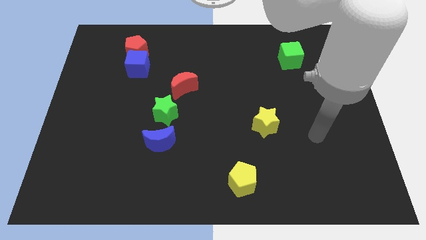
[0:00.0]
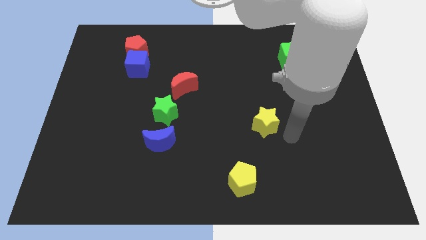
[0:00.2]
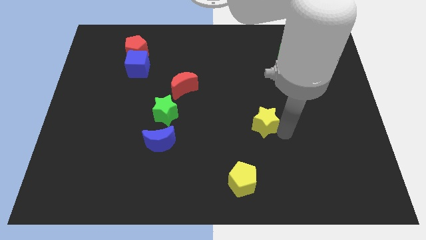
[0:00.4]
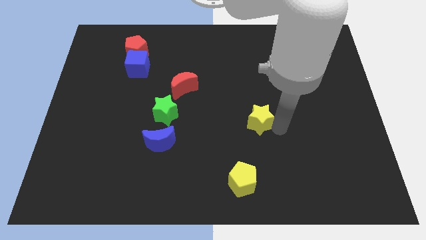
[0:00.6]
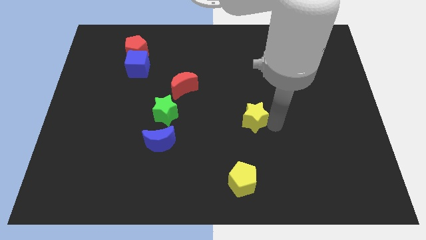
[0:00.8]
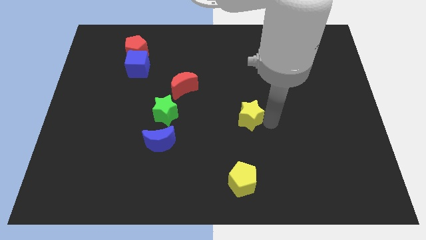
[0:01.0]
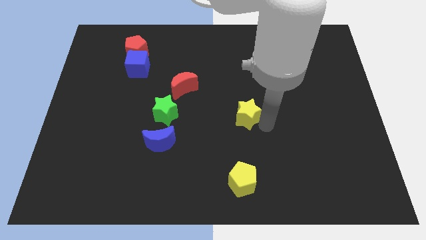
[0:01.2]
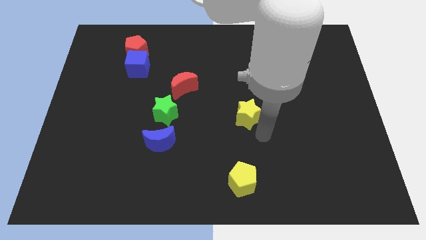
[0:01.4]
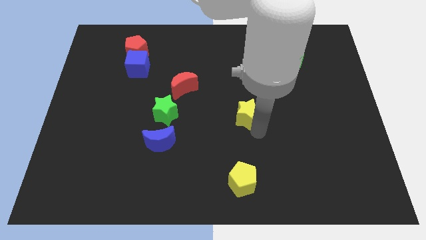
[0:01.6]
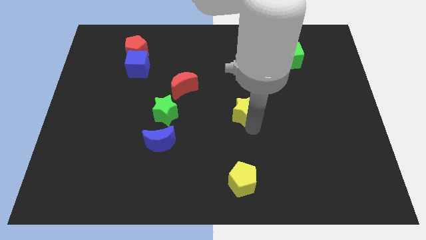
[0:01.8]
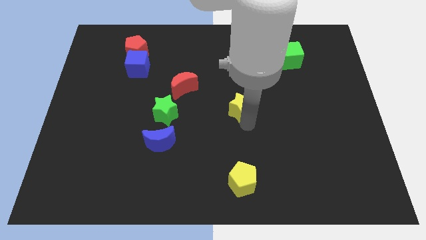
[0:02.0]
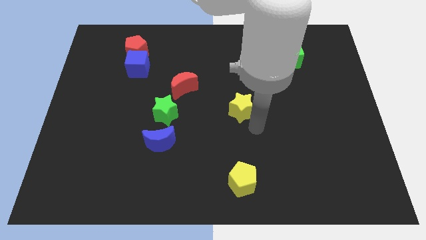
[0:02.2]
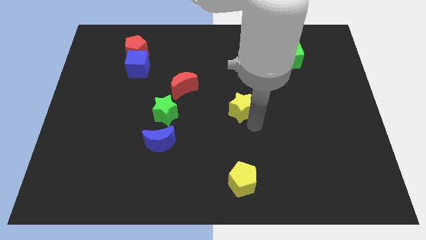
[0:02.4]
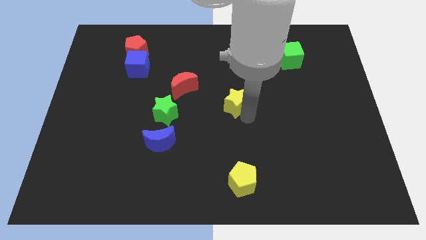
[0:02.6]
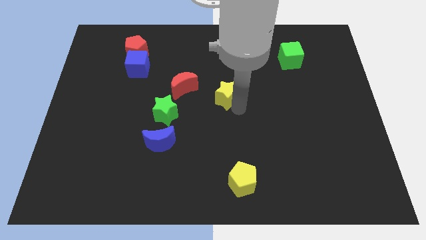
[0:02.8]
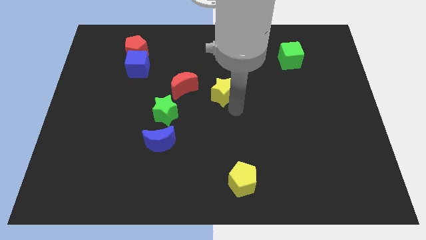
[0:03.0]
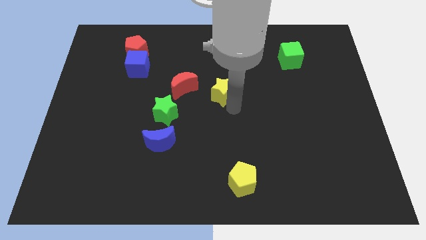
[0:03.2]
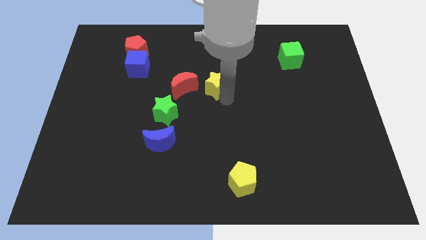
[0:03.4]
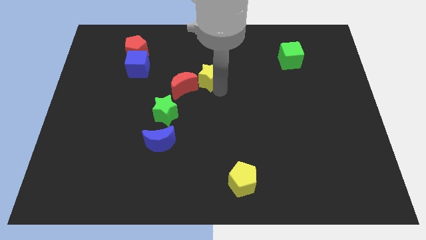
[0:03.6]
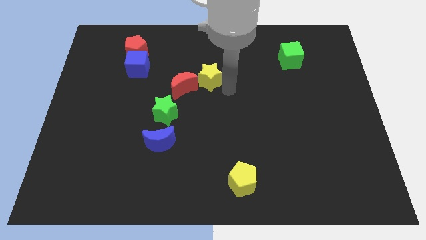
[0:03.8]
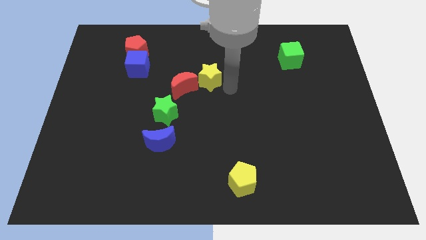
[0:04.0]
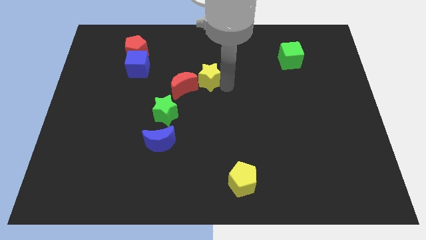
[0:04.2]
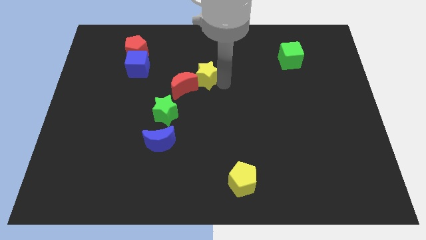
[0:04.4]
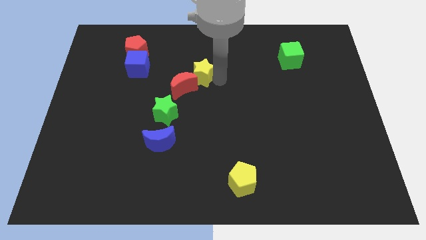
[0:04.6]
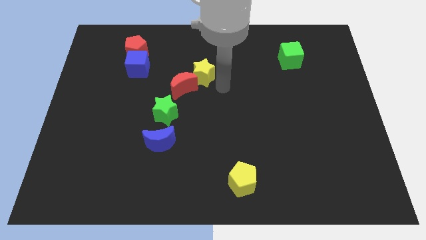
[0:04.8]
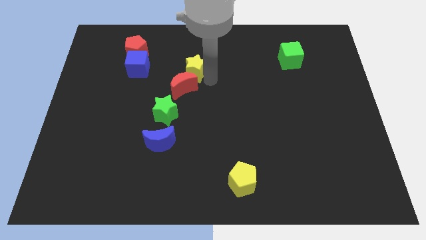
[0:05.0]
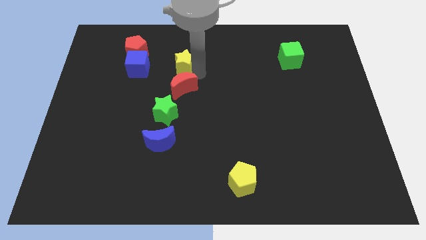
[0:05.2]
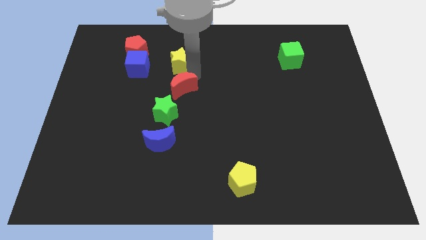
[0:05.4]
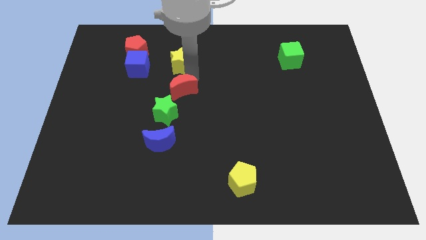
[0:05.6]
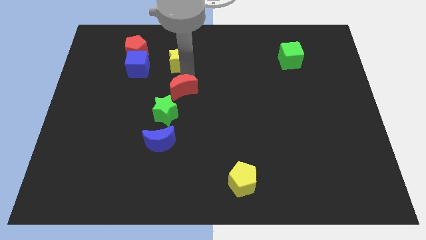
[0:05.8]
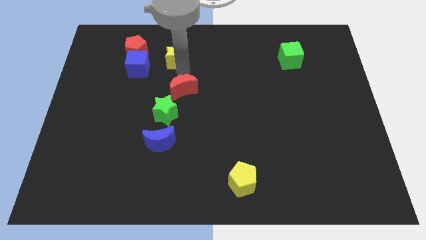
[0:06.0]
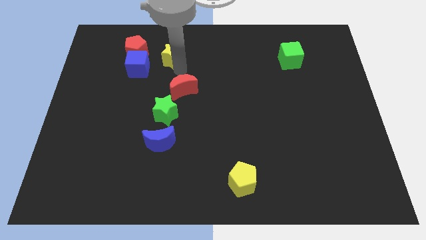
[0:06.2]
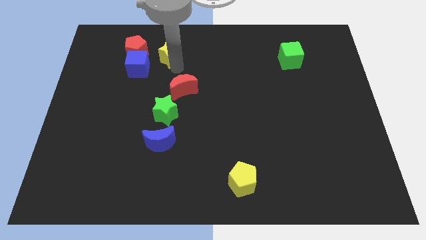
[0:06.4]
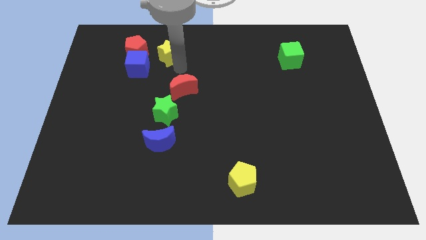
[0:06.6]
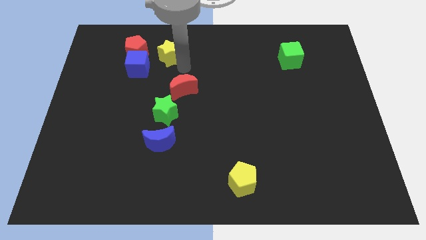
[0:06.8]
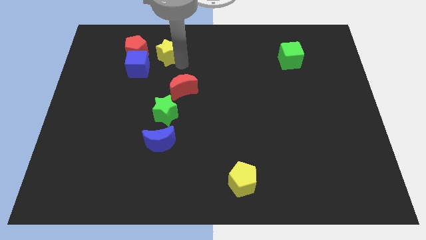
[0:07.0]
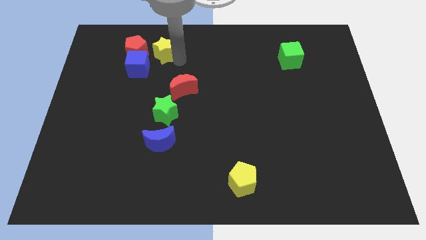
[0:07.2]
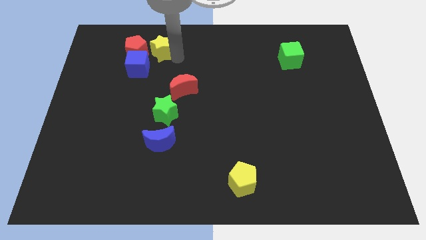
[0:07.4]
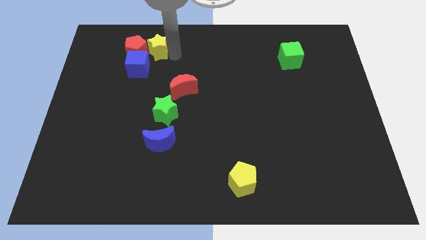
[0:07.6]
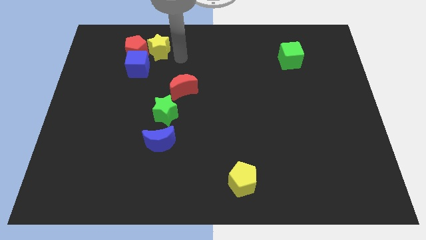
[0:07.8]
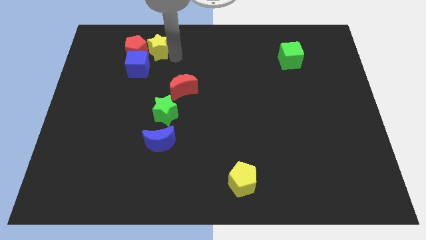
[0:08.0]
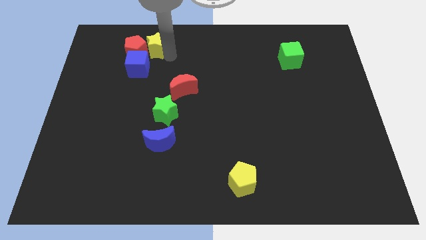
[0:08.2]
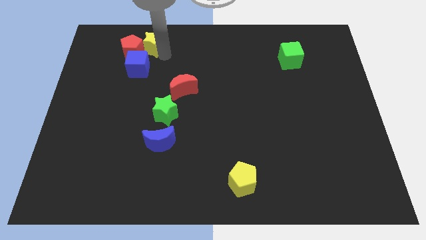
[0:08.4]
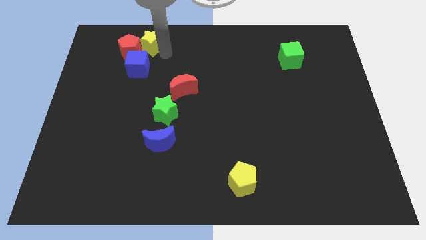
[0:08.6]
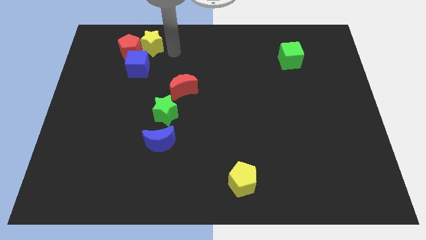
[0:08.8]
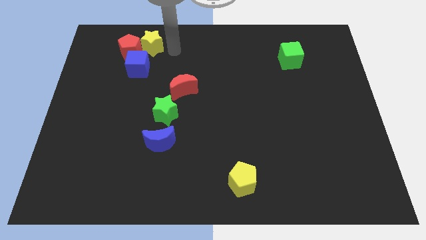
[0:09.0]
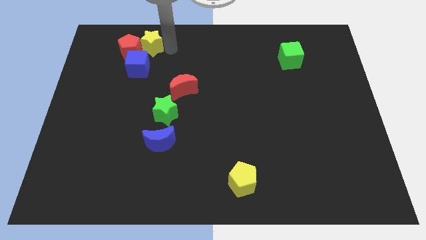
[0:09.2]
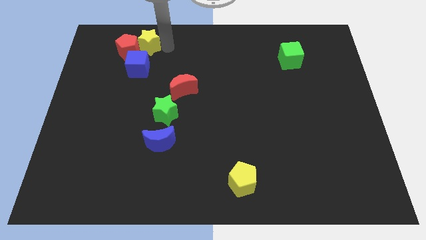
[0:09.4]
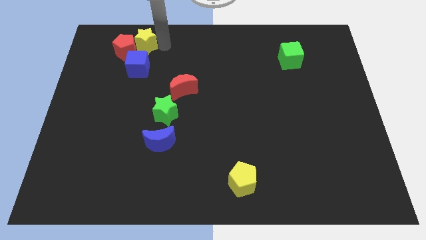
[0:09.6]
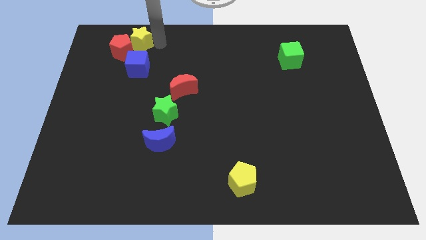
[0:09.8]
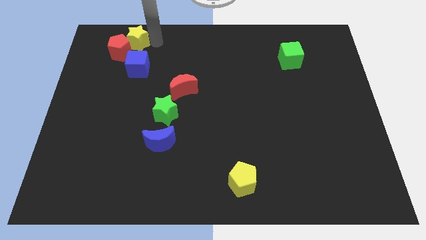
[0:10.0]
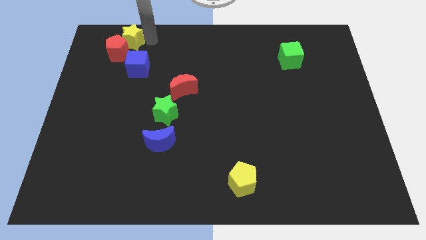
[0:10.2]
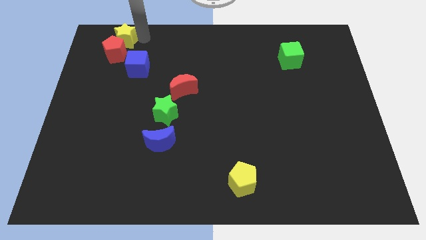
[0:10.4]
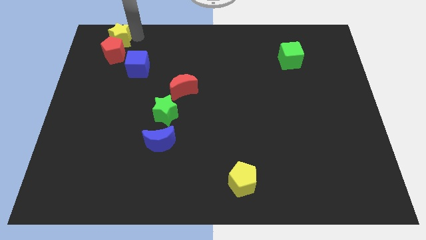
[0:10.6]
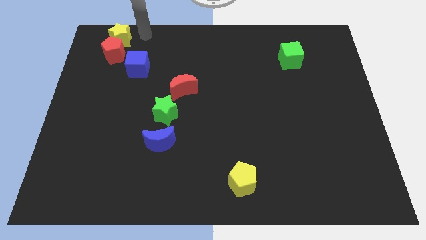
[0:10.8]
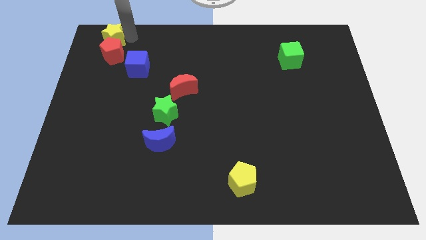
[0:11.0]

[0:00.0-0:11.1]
put the yellow star to the top left

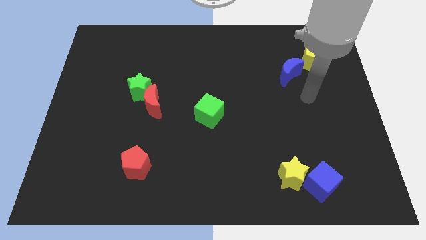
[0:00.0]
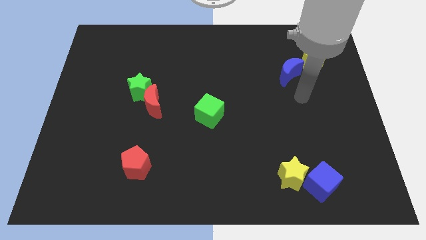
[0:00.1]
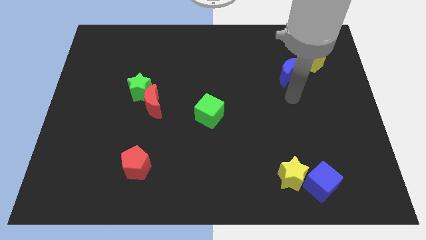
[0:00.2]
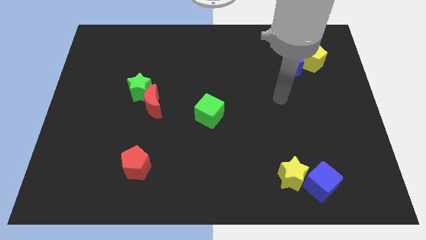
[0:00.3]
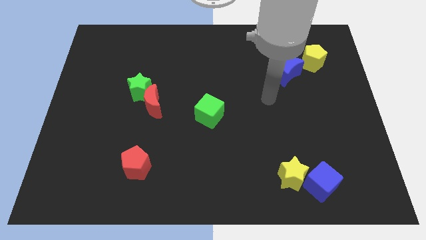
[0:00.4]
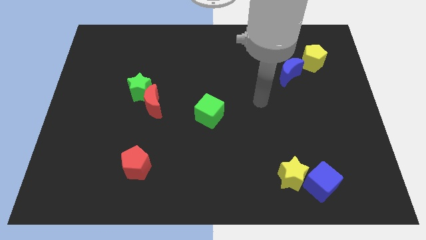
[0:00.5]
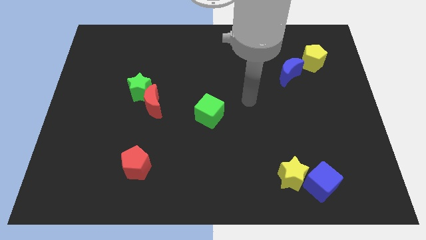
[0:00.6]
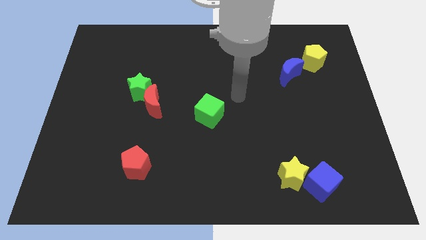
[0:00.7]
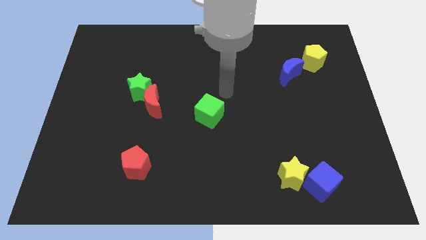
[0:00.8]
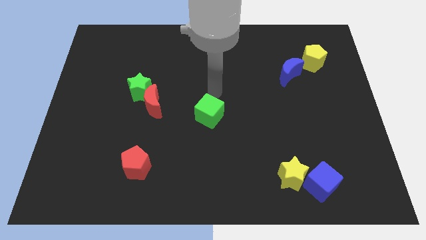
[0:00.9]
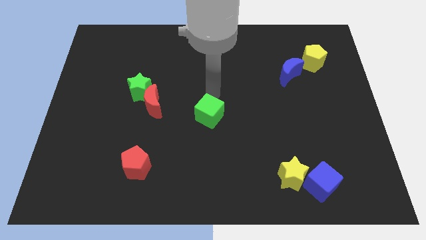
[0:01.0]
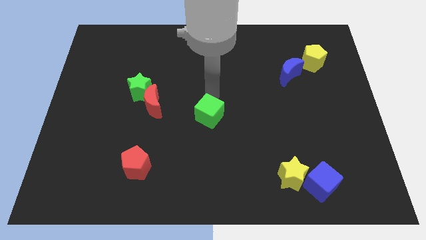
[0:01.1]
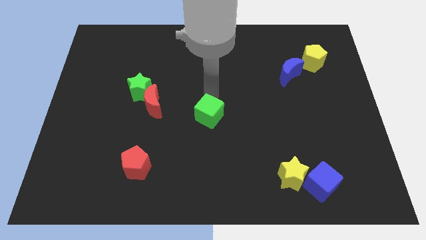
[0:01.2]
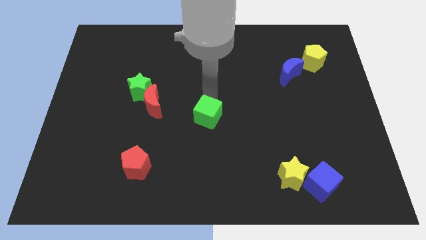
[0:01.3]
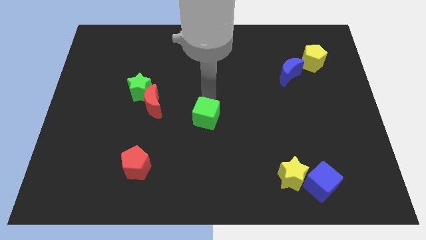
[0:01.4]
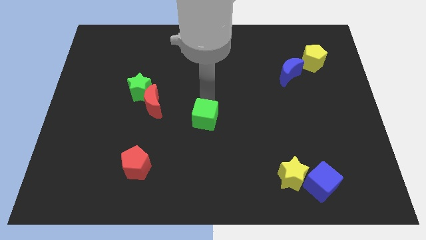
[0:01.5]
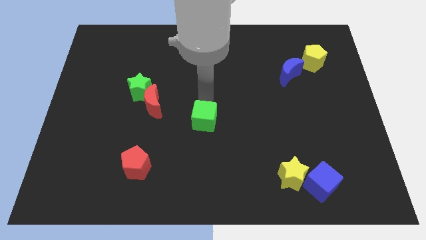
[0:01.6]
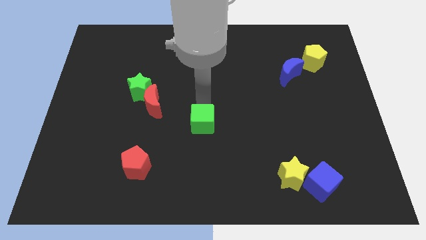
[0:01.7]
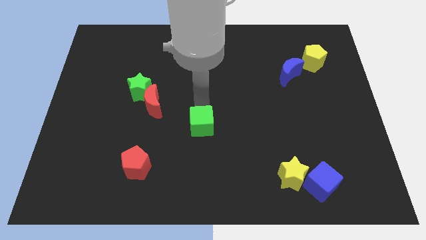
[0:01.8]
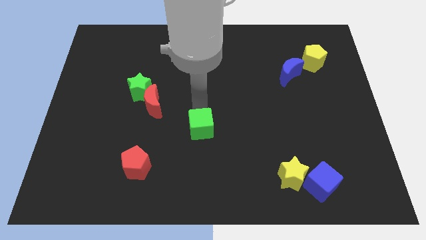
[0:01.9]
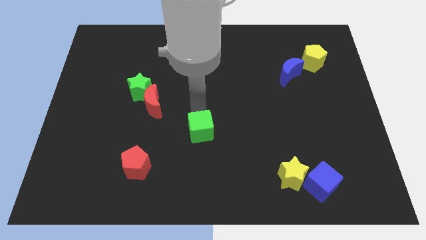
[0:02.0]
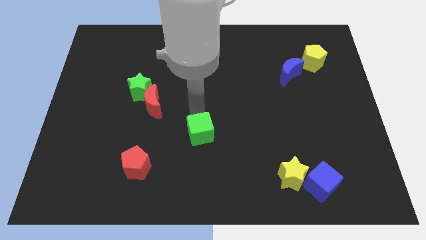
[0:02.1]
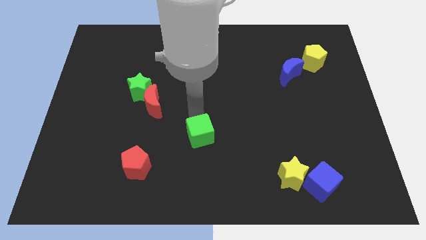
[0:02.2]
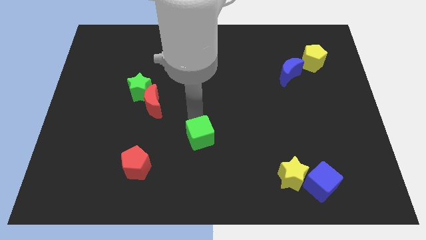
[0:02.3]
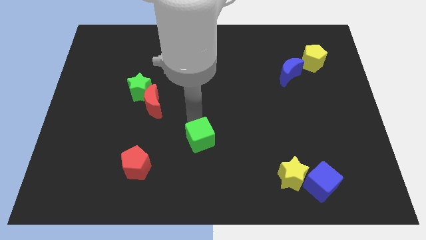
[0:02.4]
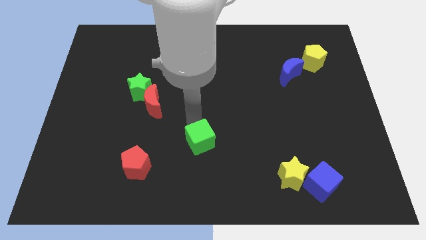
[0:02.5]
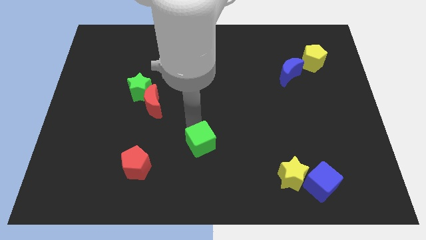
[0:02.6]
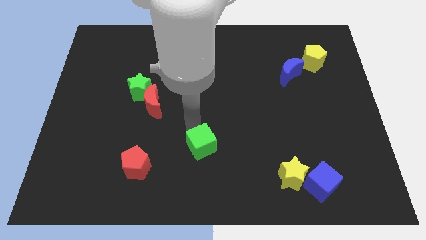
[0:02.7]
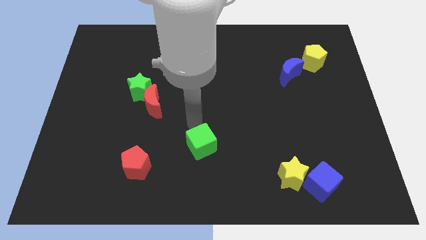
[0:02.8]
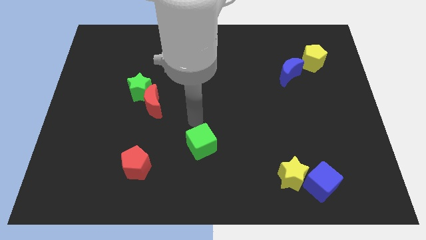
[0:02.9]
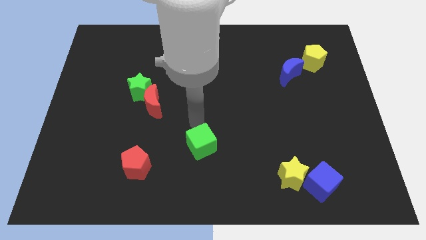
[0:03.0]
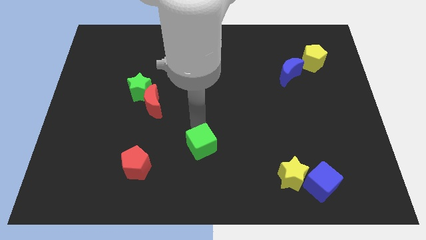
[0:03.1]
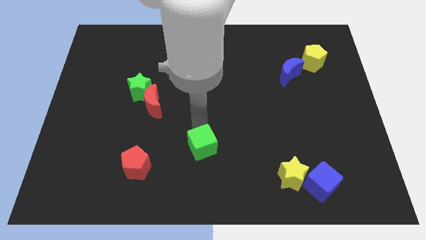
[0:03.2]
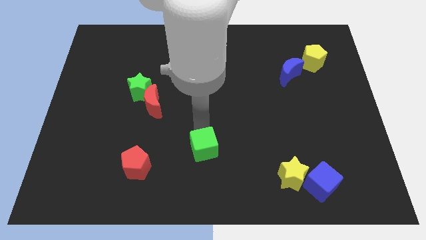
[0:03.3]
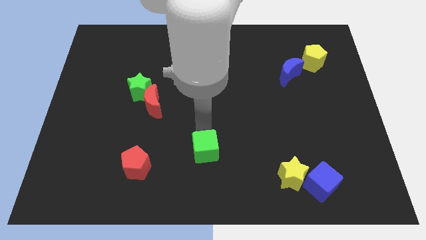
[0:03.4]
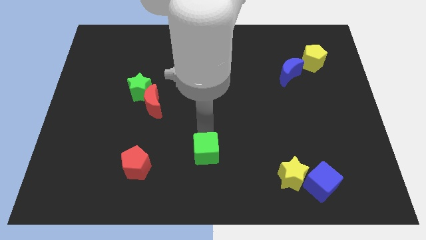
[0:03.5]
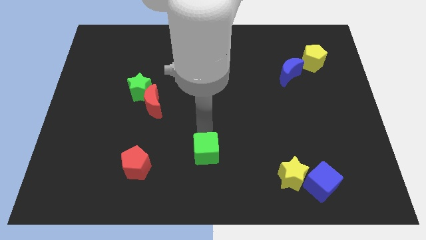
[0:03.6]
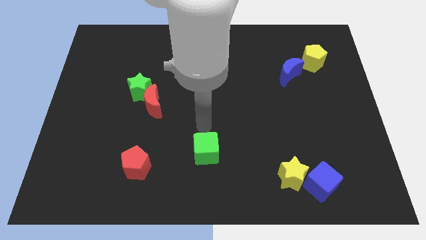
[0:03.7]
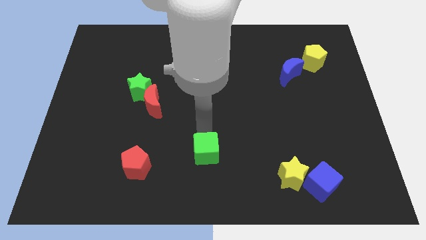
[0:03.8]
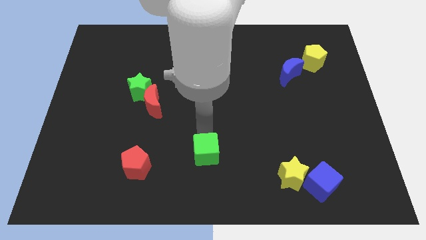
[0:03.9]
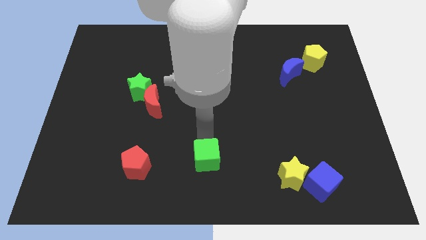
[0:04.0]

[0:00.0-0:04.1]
push the green cube to the bottom side
